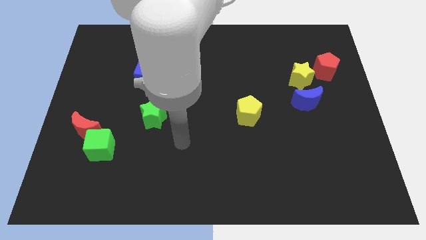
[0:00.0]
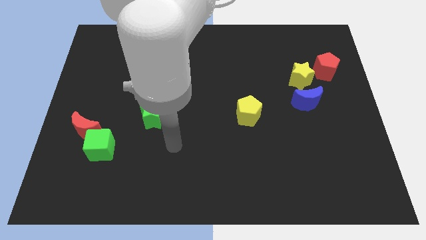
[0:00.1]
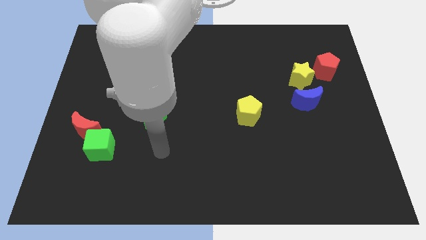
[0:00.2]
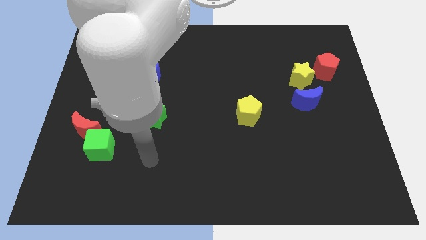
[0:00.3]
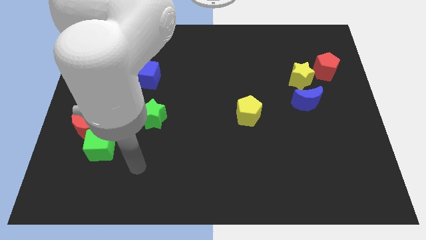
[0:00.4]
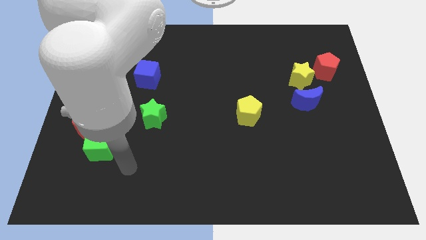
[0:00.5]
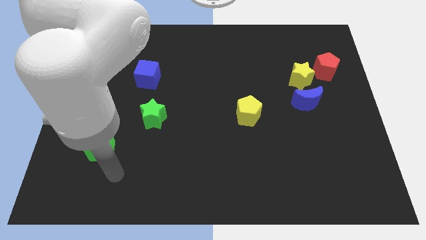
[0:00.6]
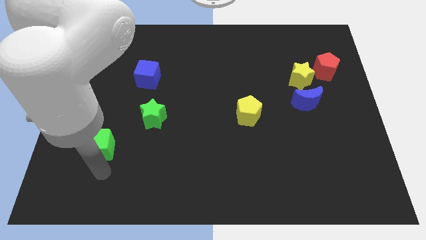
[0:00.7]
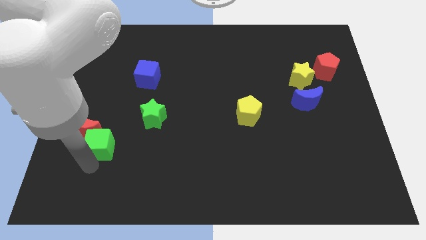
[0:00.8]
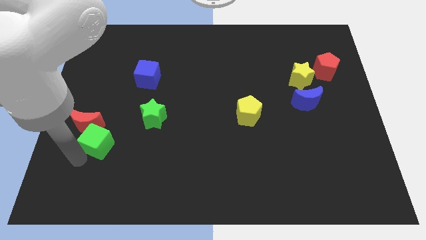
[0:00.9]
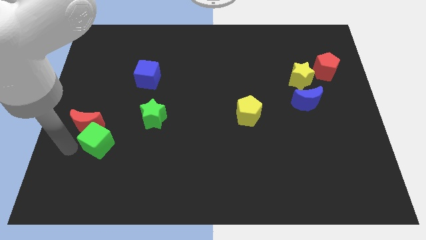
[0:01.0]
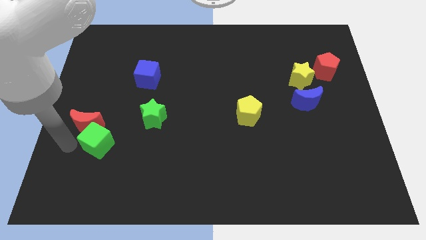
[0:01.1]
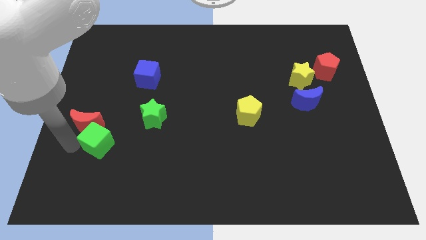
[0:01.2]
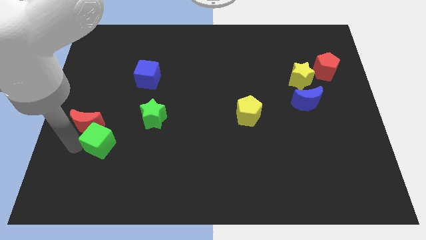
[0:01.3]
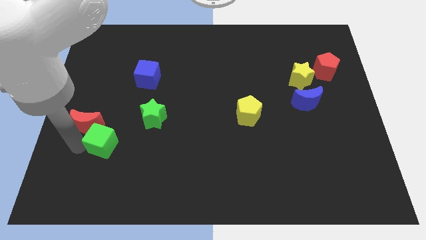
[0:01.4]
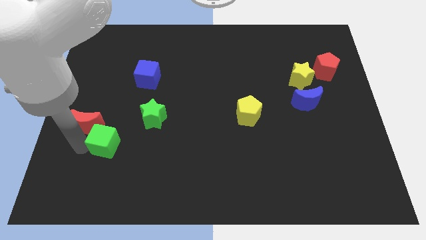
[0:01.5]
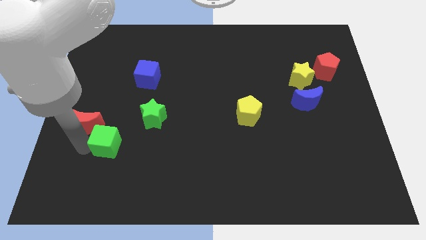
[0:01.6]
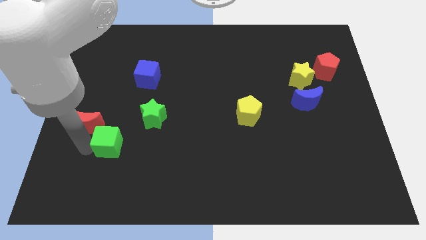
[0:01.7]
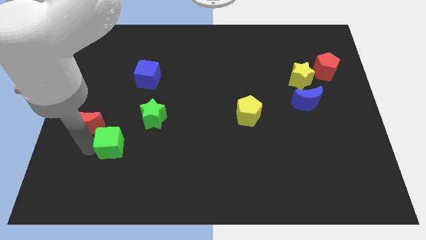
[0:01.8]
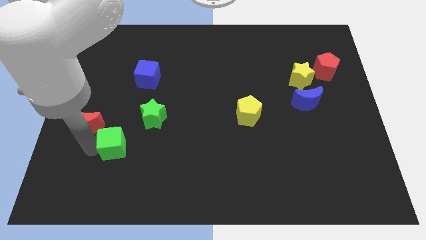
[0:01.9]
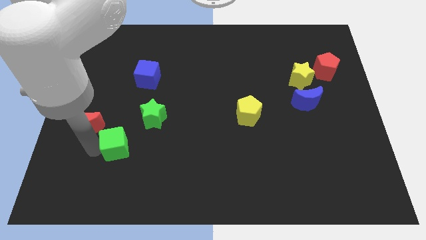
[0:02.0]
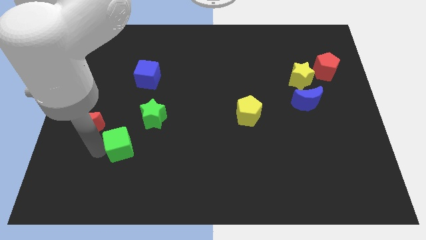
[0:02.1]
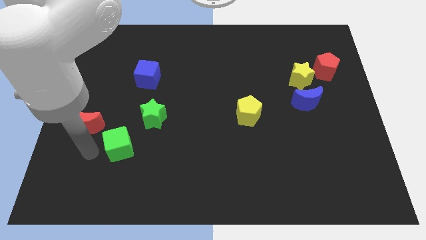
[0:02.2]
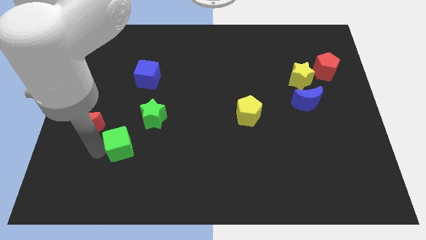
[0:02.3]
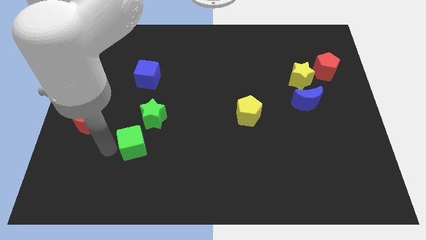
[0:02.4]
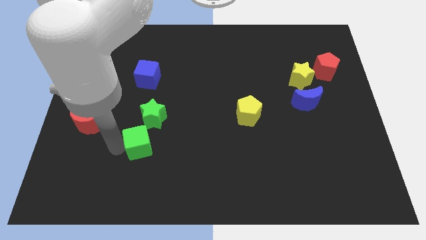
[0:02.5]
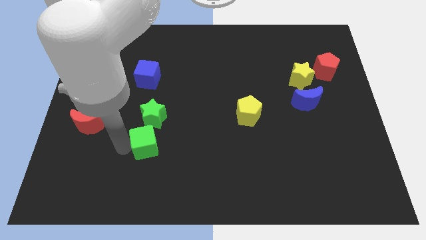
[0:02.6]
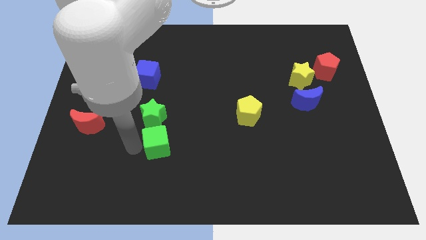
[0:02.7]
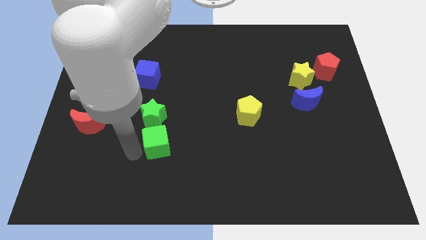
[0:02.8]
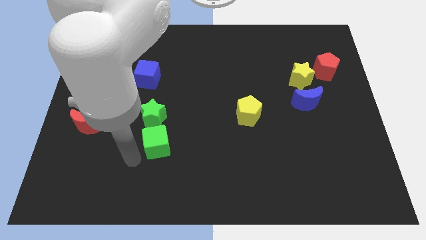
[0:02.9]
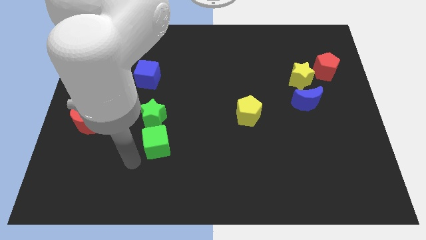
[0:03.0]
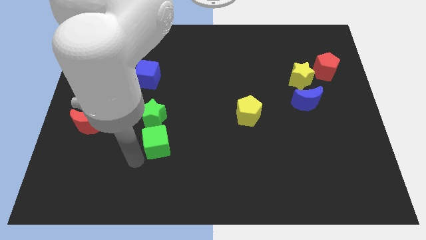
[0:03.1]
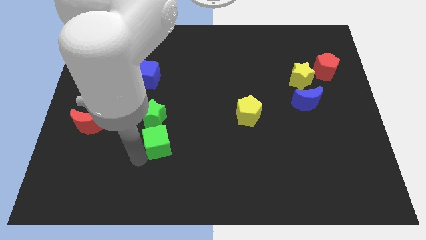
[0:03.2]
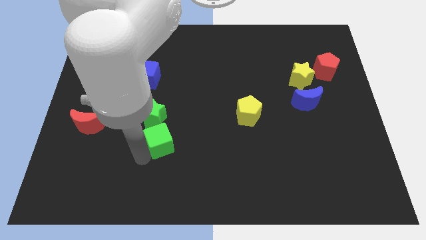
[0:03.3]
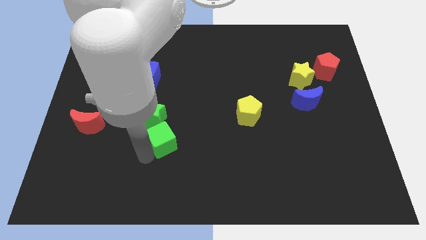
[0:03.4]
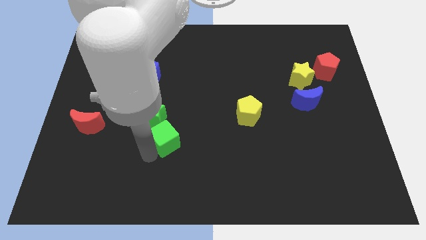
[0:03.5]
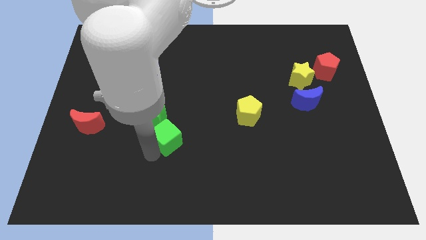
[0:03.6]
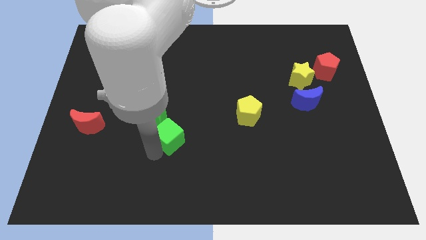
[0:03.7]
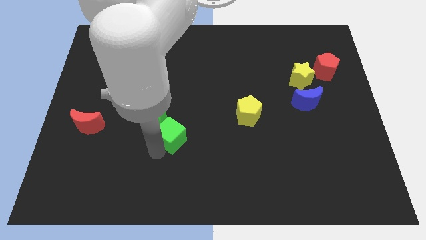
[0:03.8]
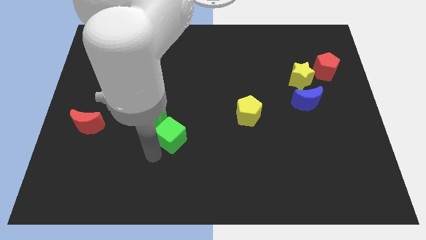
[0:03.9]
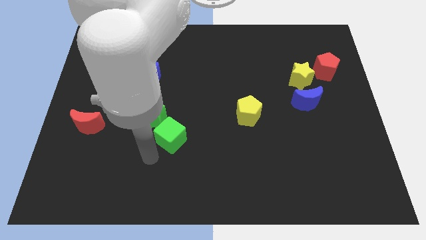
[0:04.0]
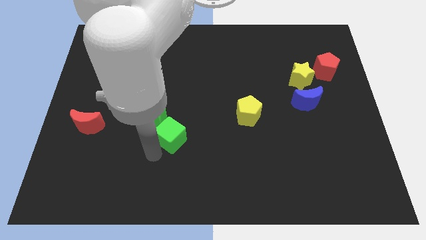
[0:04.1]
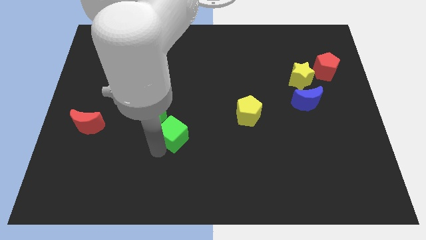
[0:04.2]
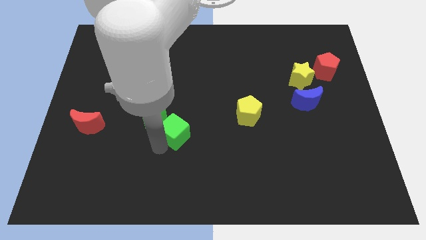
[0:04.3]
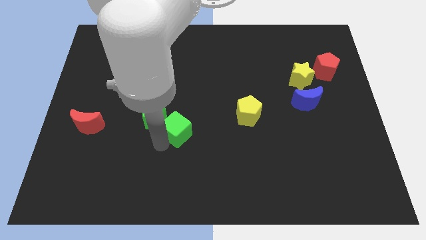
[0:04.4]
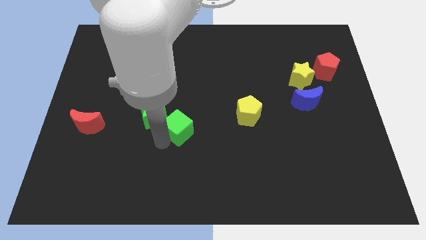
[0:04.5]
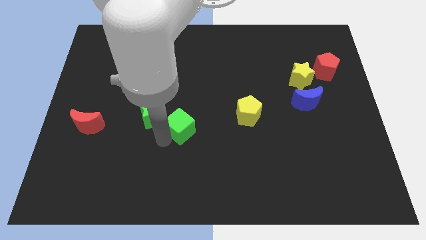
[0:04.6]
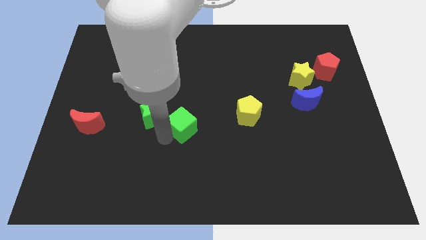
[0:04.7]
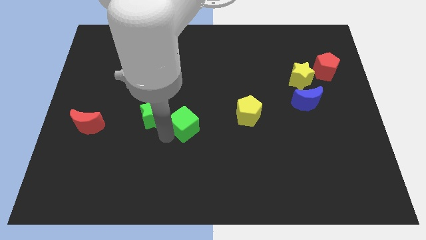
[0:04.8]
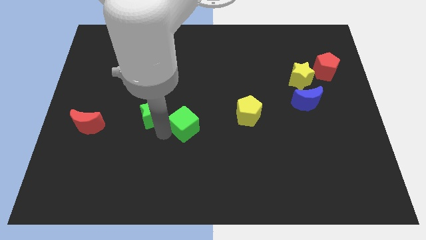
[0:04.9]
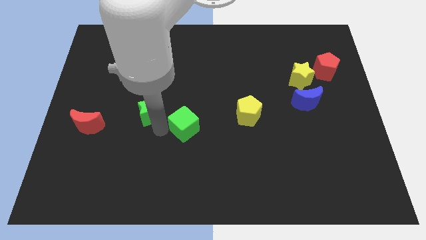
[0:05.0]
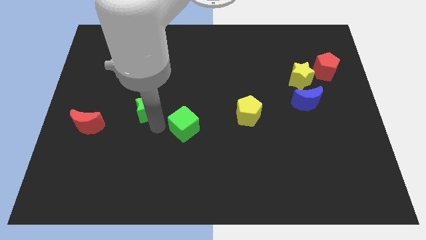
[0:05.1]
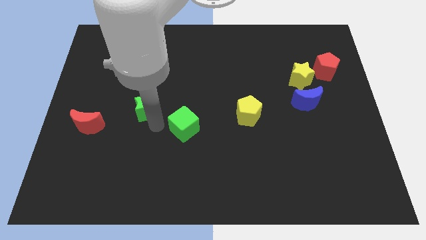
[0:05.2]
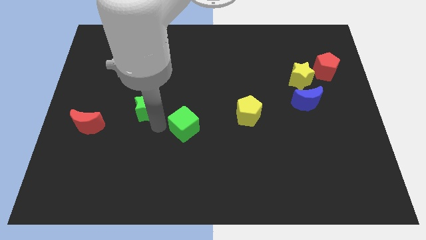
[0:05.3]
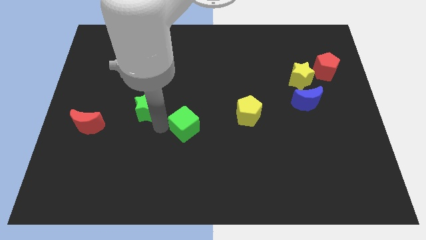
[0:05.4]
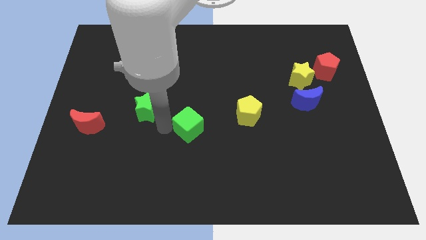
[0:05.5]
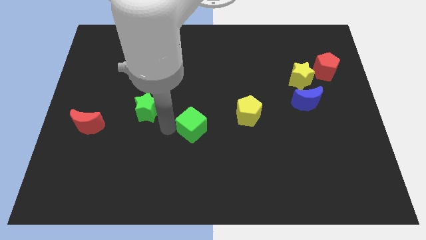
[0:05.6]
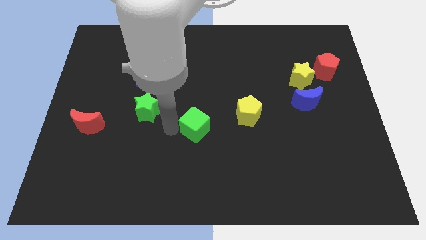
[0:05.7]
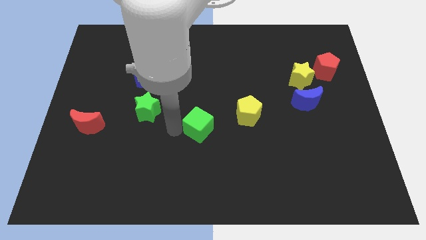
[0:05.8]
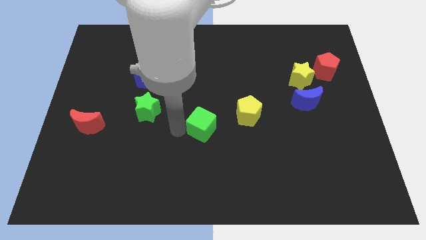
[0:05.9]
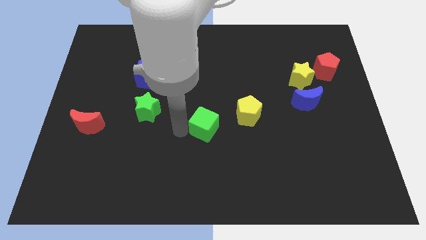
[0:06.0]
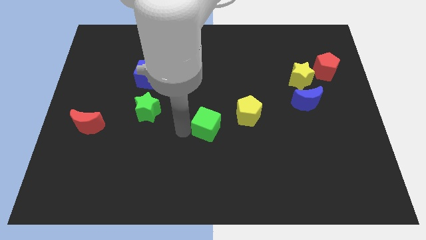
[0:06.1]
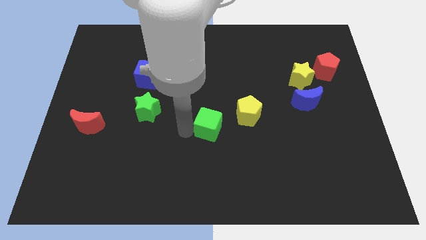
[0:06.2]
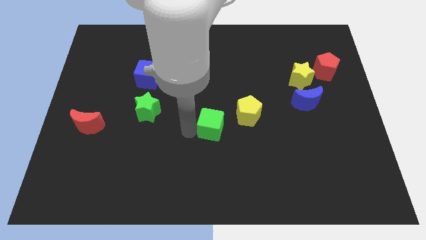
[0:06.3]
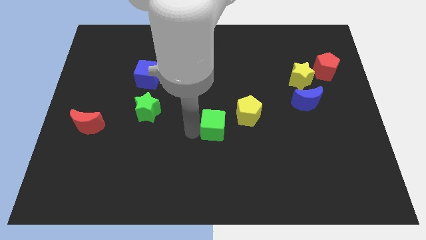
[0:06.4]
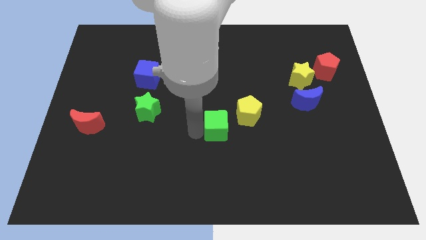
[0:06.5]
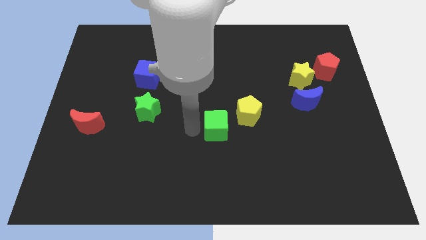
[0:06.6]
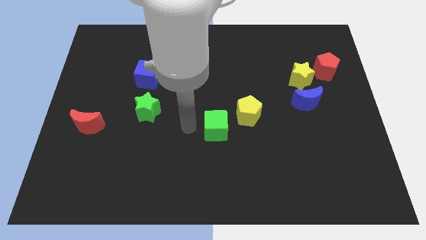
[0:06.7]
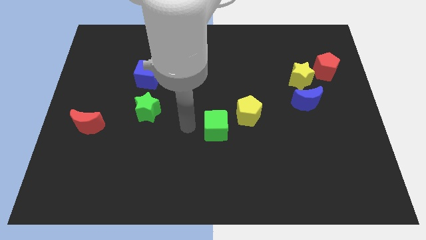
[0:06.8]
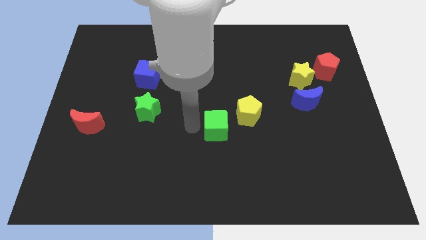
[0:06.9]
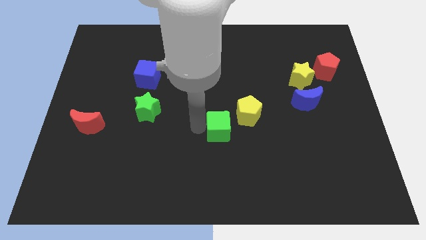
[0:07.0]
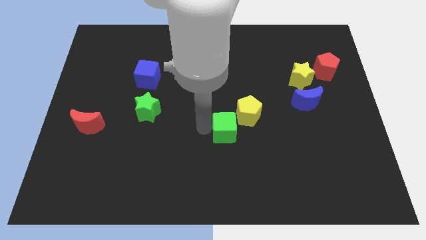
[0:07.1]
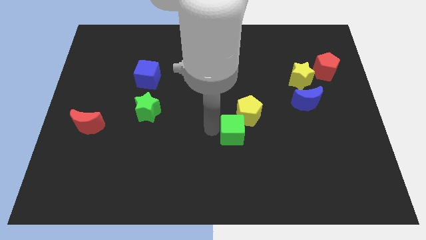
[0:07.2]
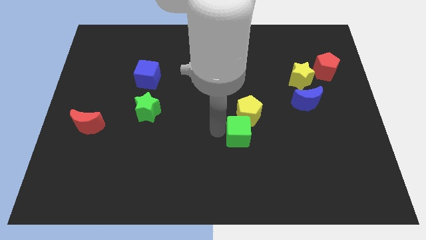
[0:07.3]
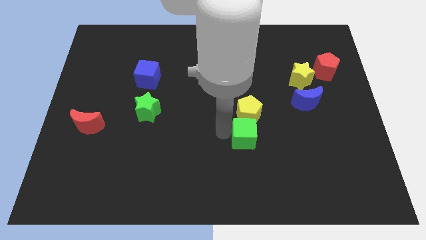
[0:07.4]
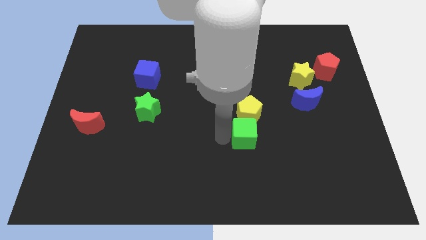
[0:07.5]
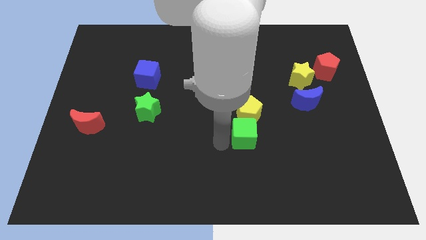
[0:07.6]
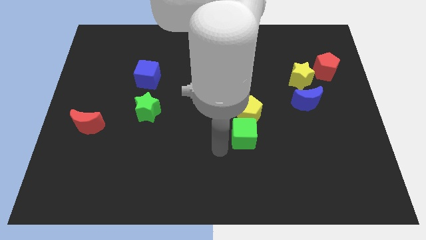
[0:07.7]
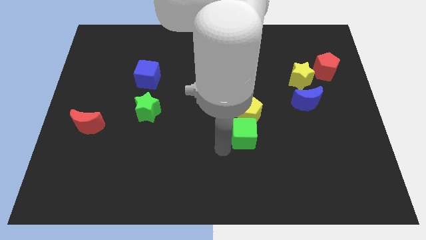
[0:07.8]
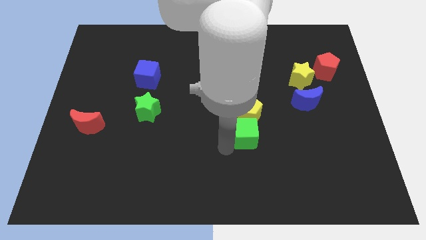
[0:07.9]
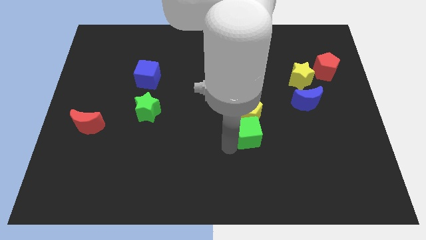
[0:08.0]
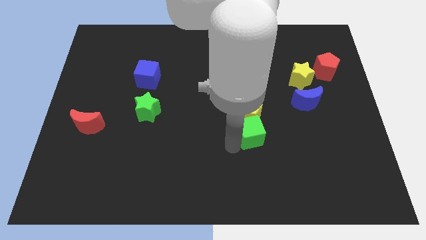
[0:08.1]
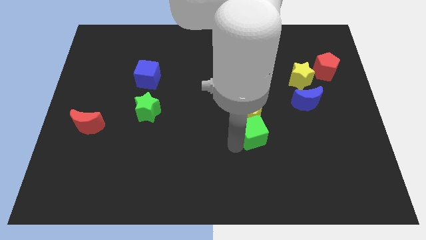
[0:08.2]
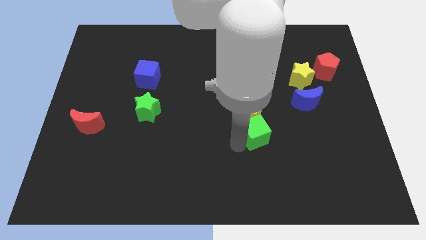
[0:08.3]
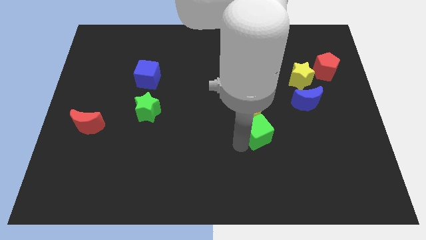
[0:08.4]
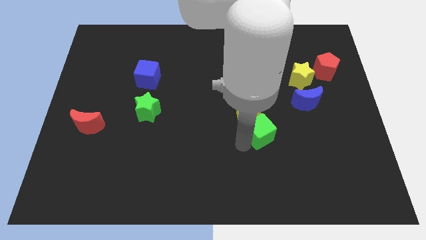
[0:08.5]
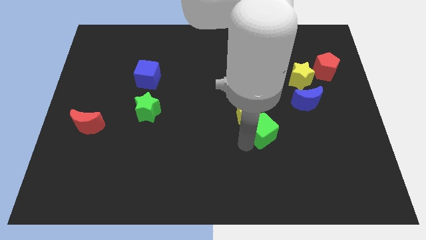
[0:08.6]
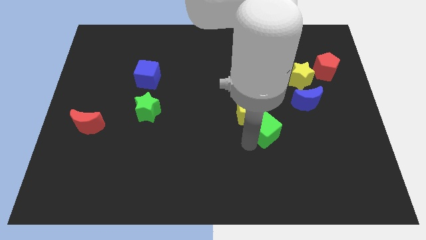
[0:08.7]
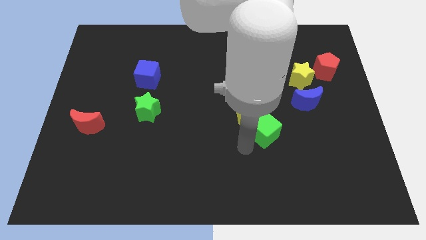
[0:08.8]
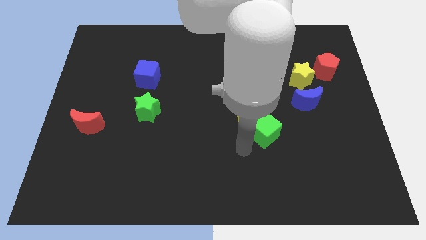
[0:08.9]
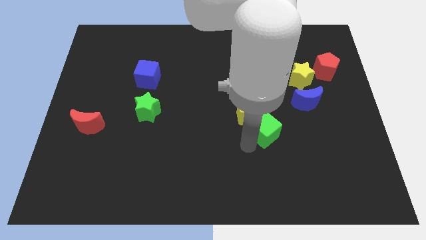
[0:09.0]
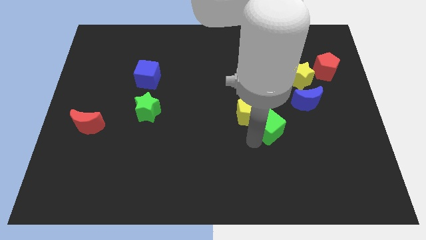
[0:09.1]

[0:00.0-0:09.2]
move the green cube just right of the yellow pentagon
